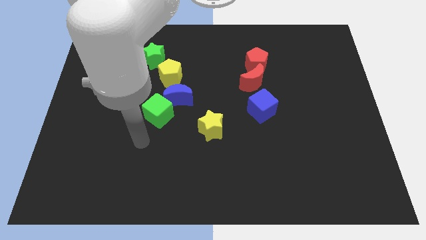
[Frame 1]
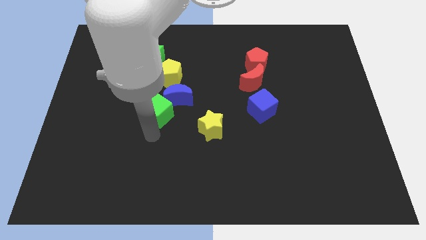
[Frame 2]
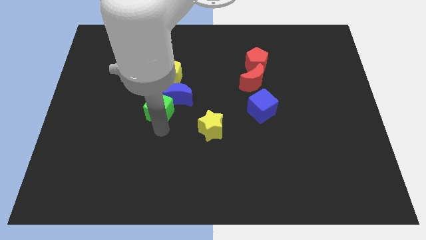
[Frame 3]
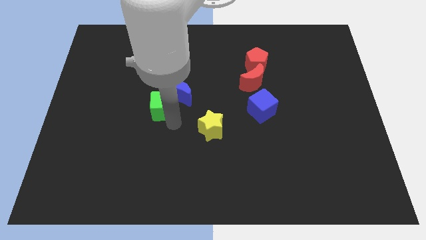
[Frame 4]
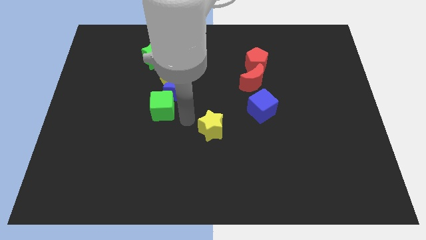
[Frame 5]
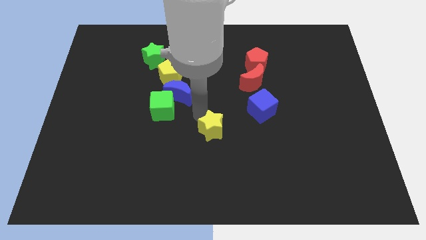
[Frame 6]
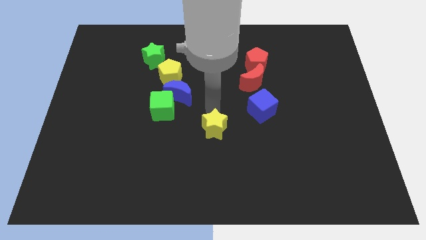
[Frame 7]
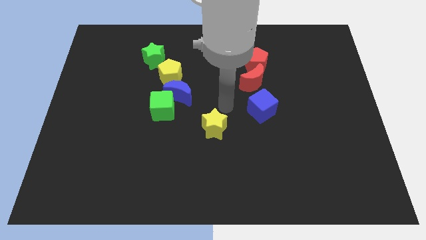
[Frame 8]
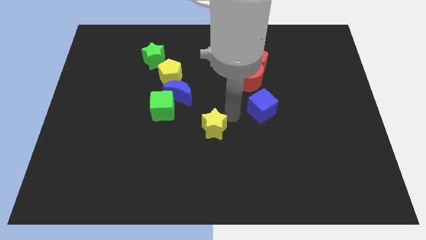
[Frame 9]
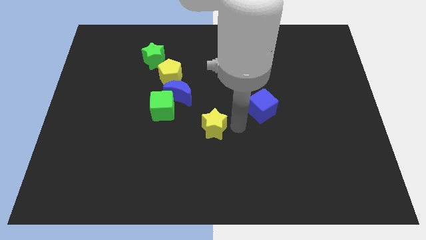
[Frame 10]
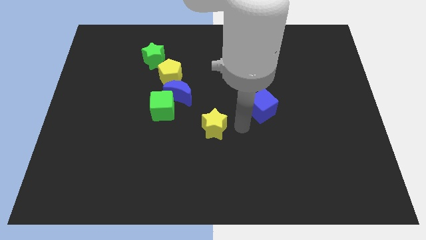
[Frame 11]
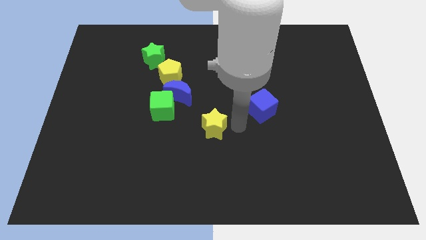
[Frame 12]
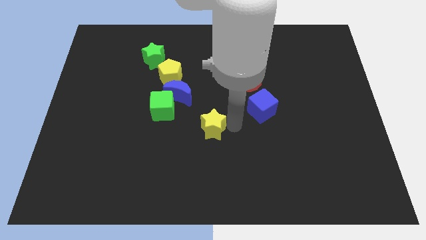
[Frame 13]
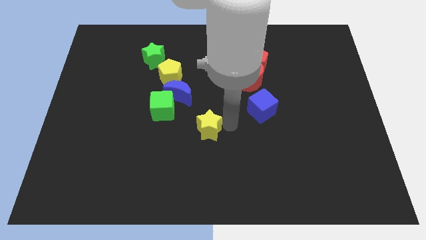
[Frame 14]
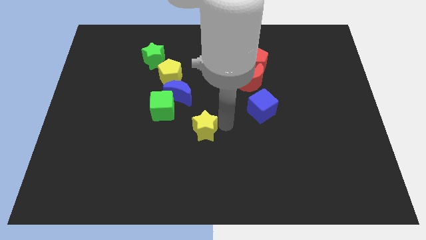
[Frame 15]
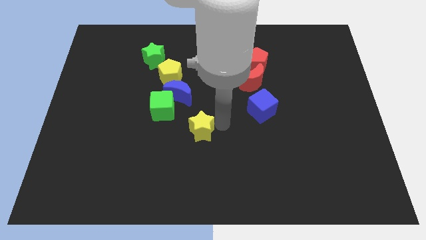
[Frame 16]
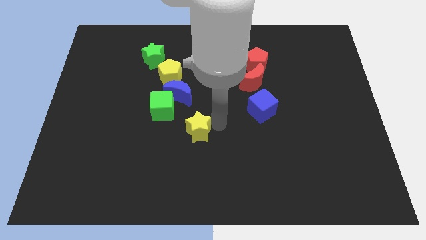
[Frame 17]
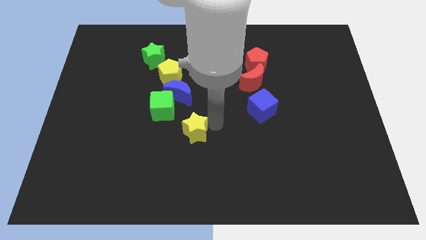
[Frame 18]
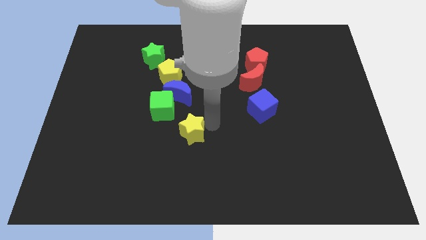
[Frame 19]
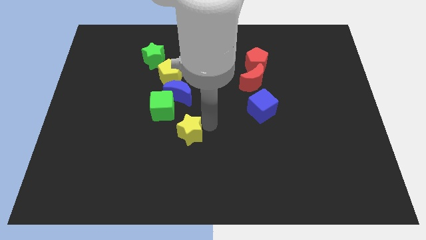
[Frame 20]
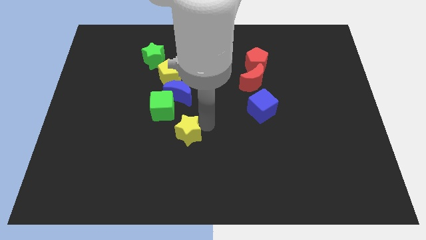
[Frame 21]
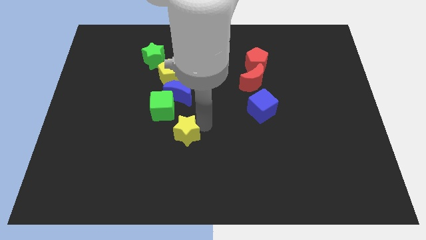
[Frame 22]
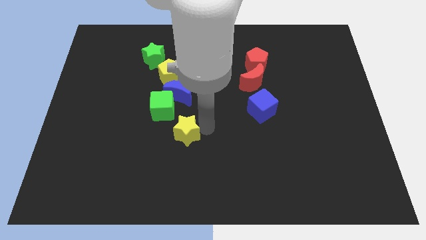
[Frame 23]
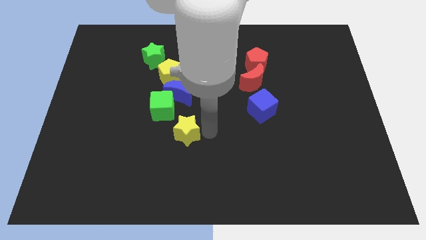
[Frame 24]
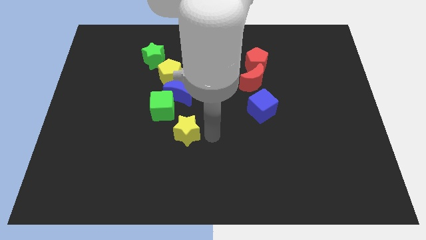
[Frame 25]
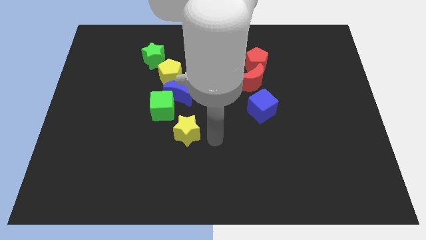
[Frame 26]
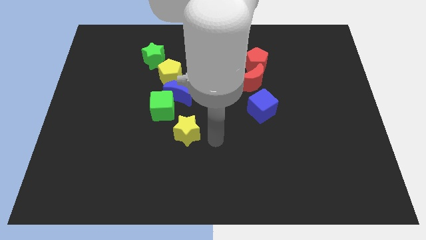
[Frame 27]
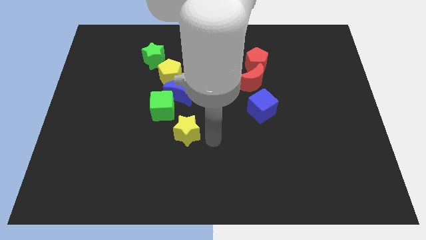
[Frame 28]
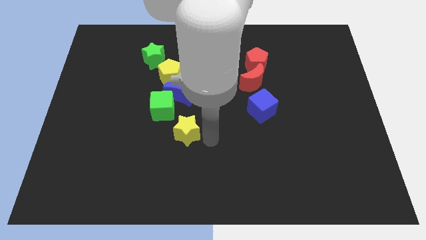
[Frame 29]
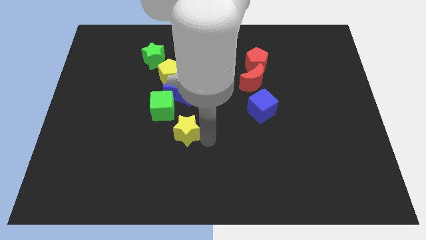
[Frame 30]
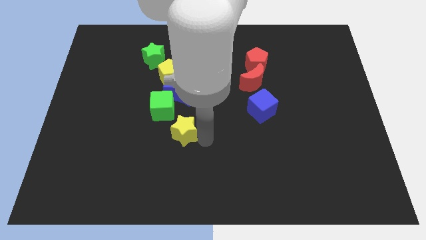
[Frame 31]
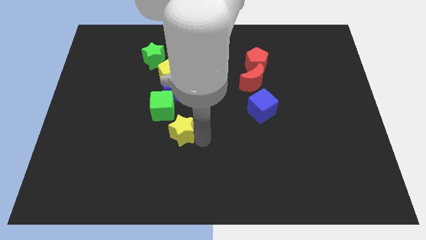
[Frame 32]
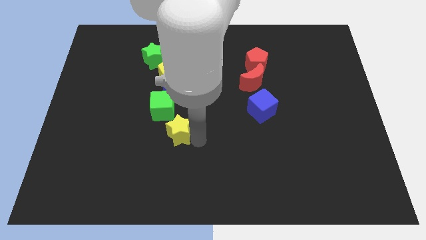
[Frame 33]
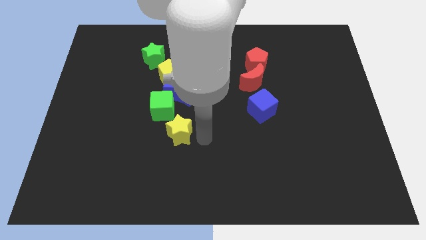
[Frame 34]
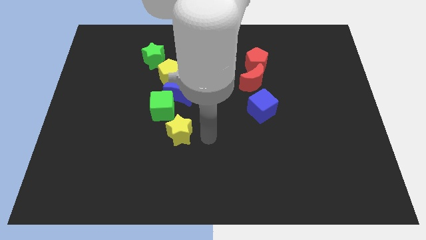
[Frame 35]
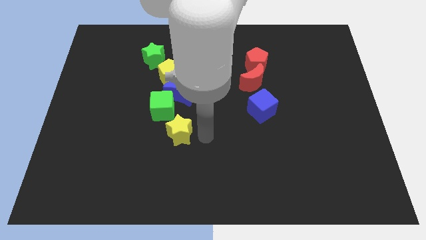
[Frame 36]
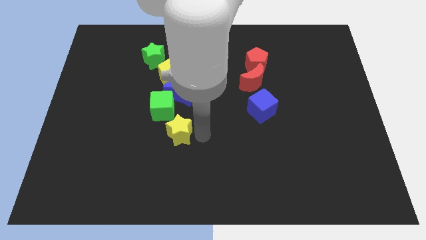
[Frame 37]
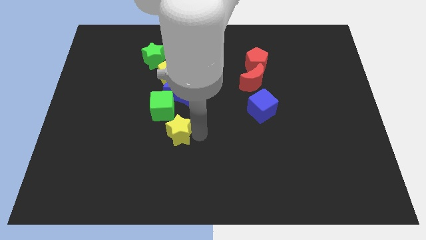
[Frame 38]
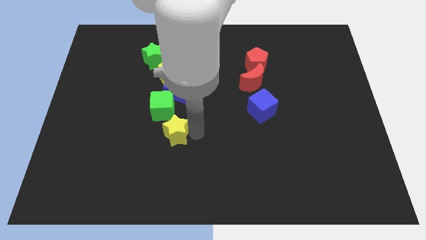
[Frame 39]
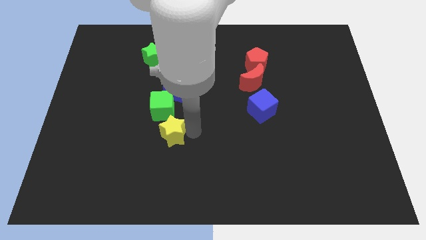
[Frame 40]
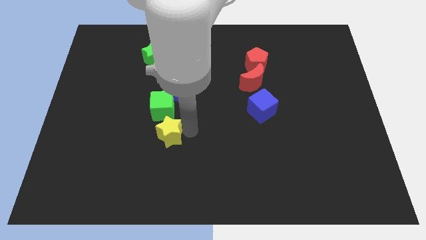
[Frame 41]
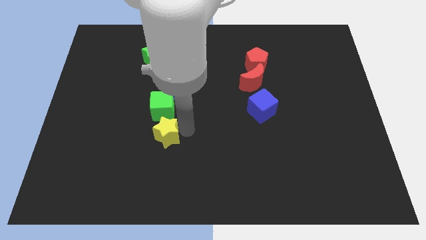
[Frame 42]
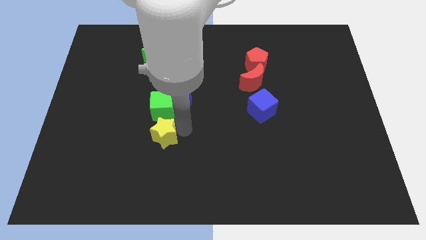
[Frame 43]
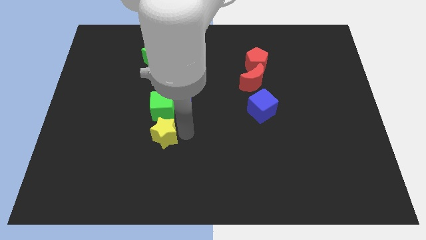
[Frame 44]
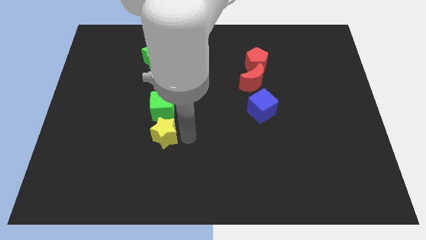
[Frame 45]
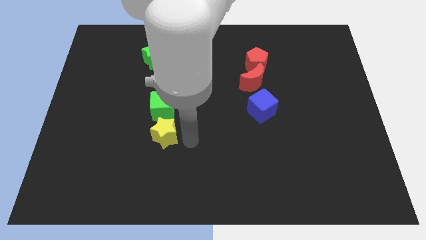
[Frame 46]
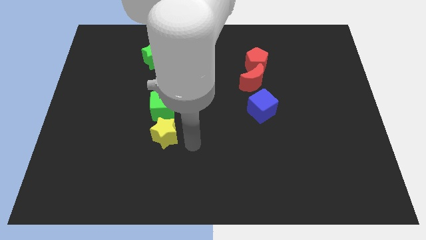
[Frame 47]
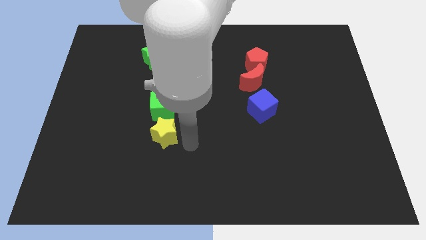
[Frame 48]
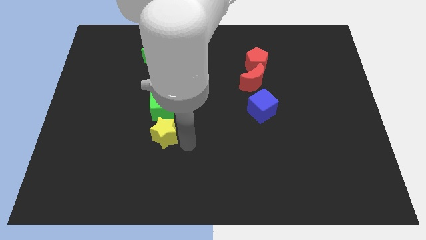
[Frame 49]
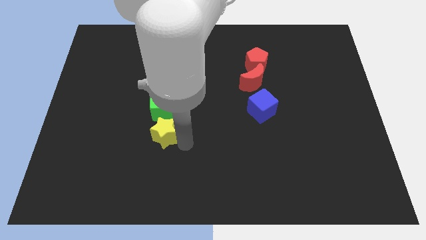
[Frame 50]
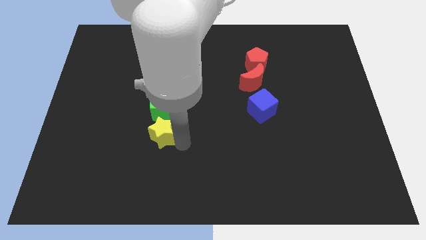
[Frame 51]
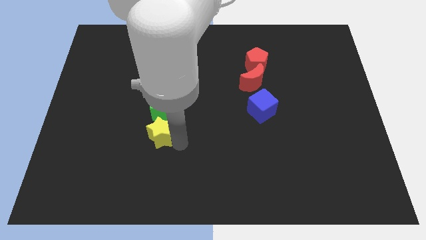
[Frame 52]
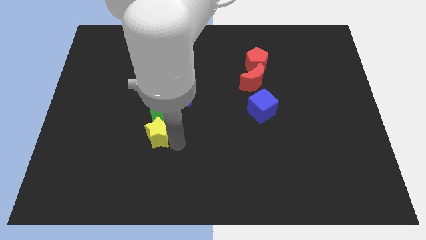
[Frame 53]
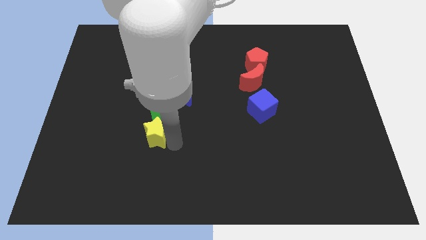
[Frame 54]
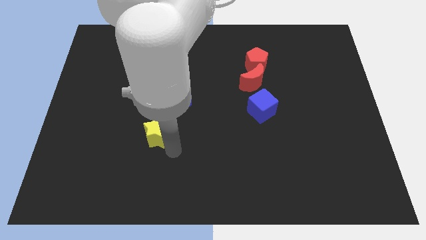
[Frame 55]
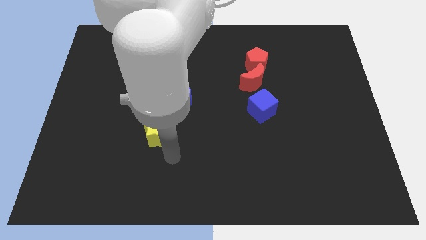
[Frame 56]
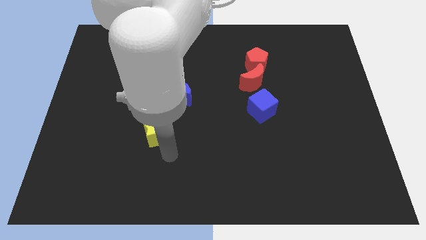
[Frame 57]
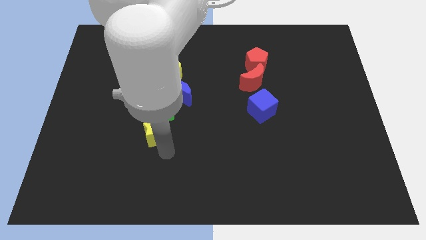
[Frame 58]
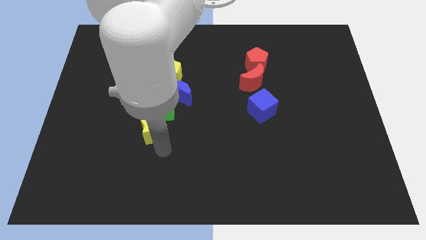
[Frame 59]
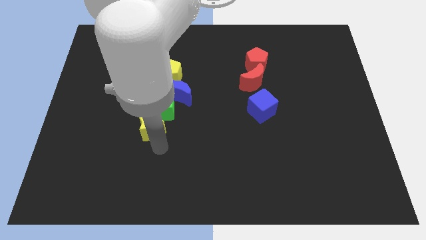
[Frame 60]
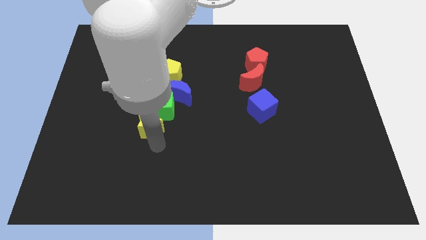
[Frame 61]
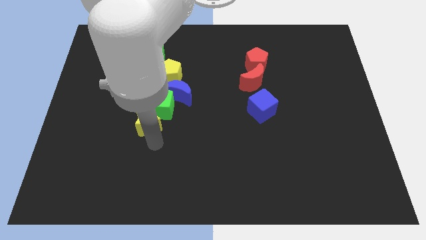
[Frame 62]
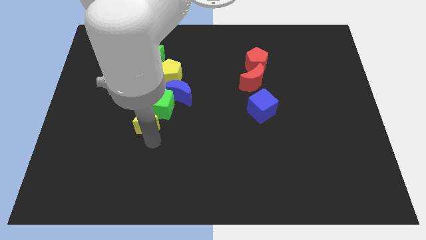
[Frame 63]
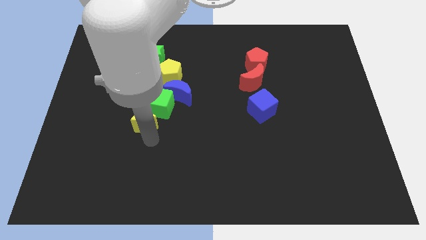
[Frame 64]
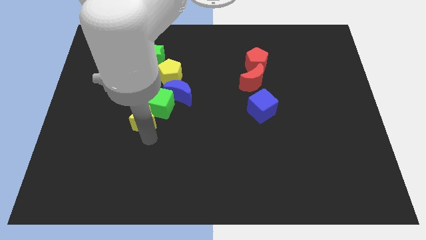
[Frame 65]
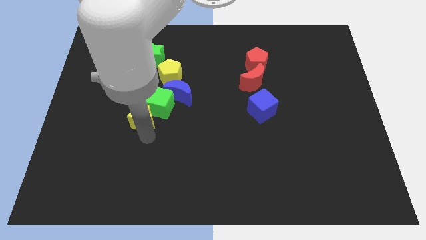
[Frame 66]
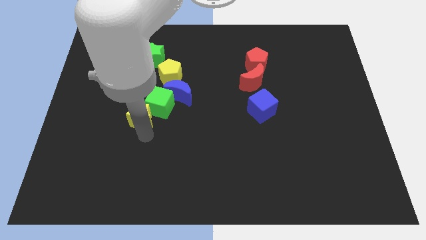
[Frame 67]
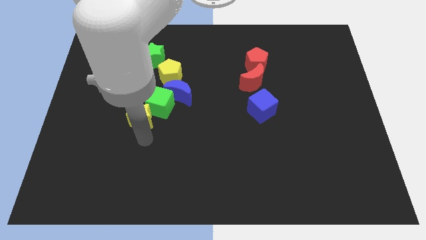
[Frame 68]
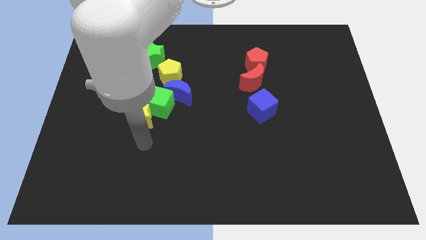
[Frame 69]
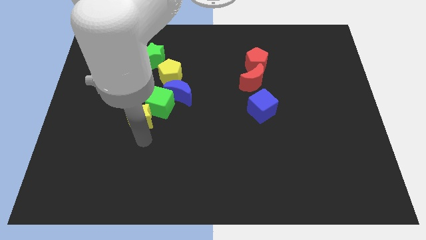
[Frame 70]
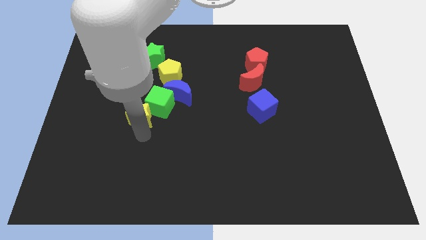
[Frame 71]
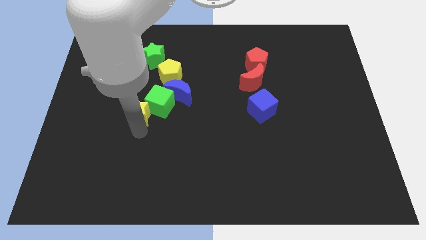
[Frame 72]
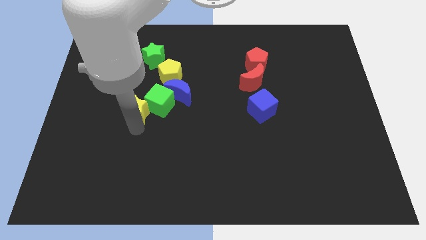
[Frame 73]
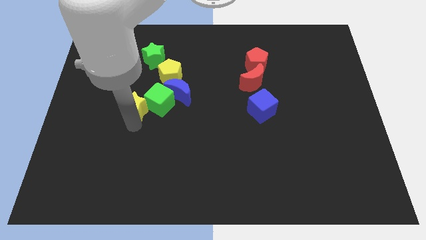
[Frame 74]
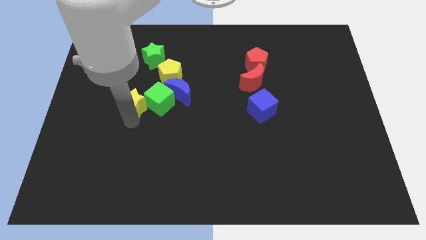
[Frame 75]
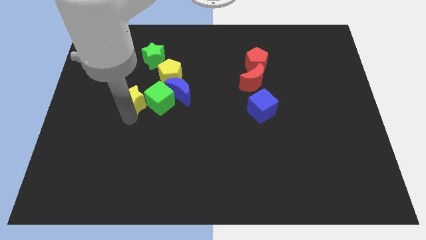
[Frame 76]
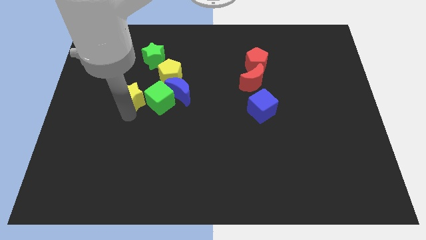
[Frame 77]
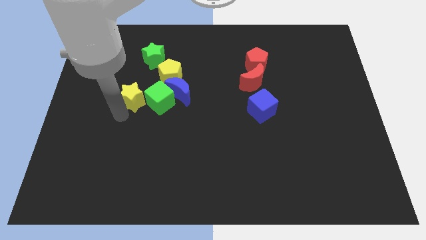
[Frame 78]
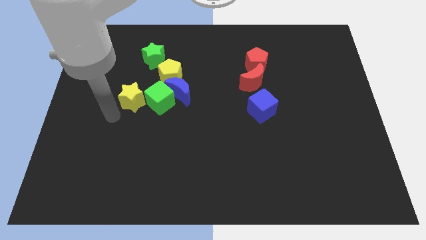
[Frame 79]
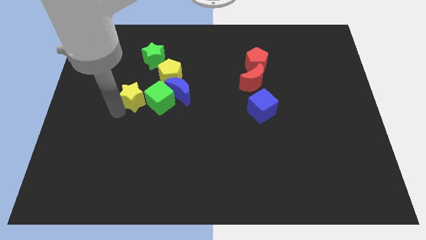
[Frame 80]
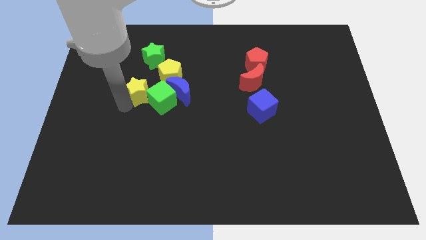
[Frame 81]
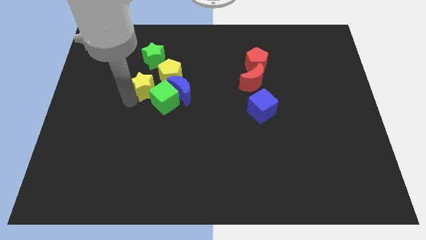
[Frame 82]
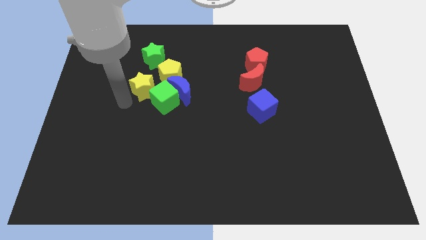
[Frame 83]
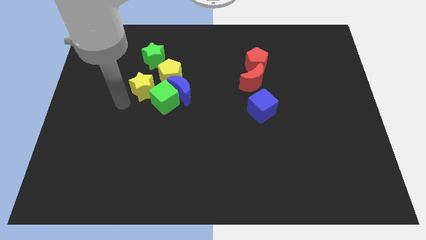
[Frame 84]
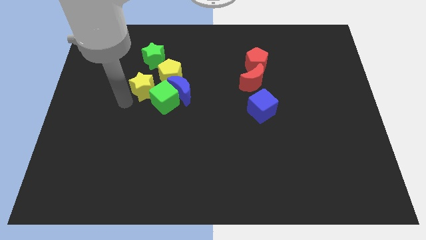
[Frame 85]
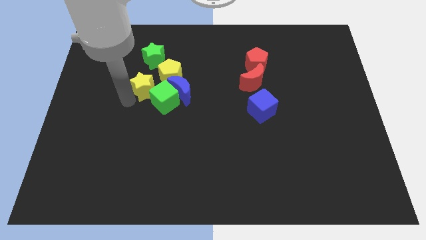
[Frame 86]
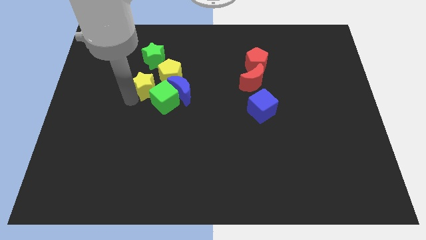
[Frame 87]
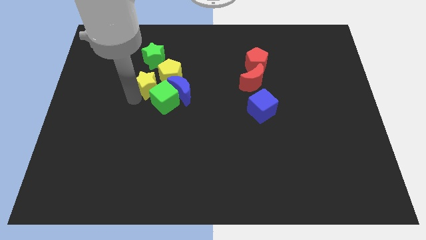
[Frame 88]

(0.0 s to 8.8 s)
push the yellow star to the top left of the blue moon
